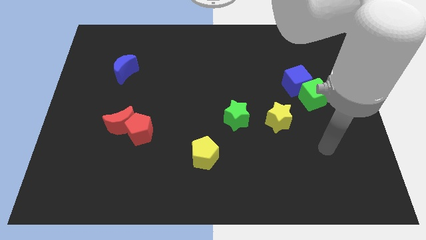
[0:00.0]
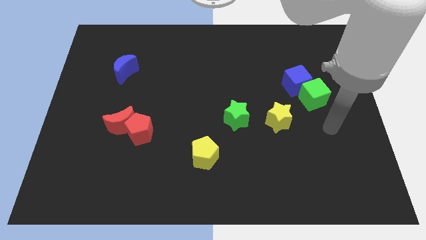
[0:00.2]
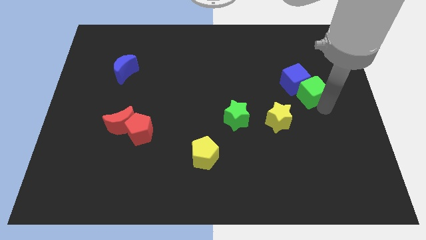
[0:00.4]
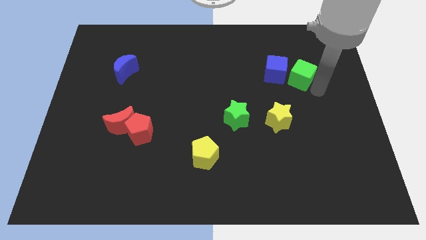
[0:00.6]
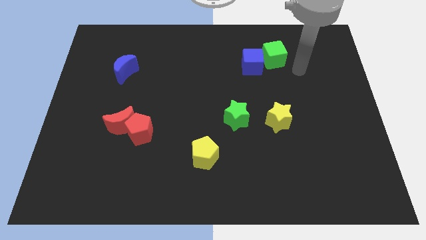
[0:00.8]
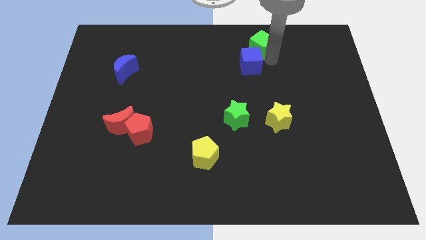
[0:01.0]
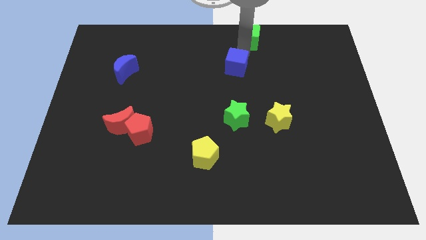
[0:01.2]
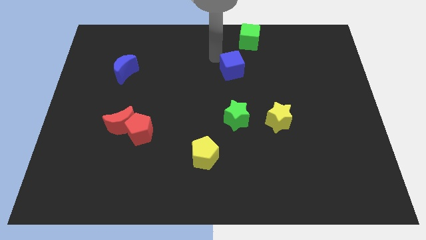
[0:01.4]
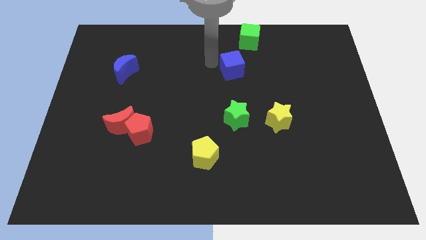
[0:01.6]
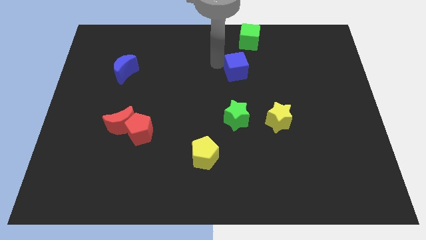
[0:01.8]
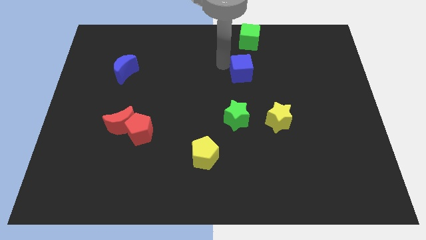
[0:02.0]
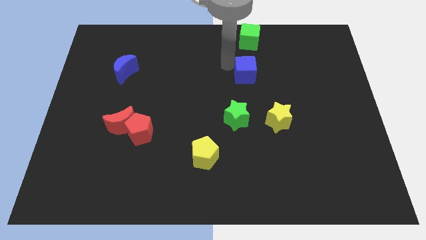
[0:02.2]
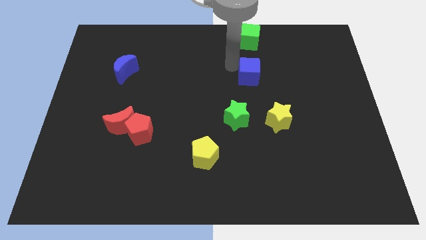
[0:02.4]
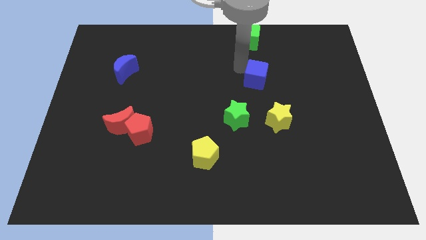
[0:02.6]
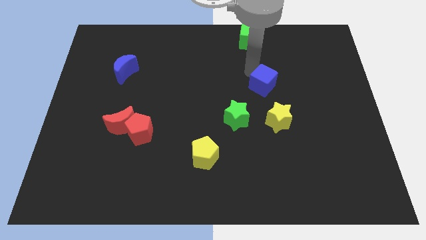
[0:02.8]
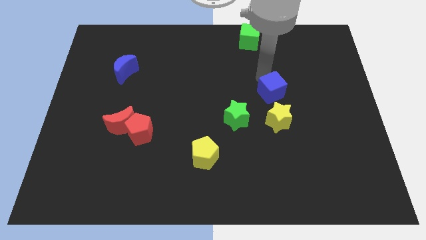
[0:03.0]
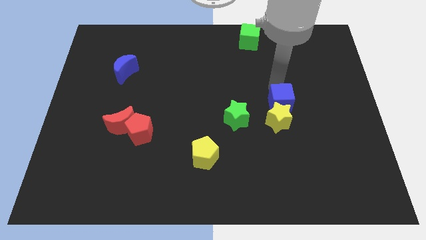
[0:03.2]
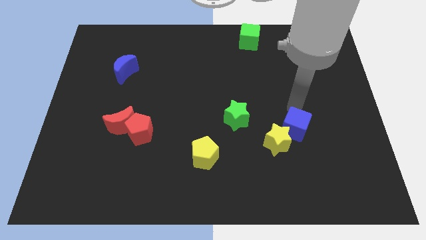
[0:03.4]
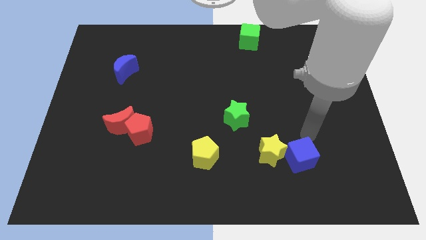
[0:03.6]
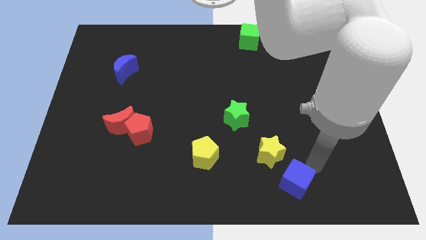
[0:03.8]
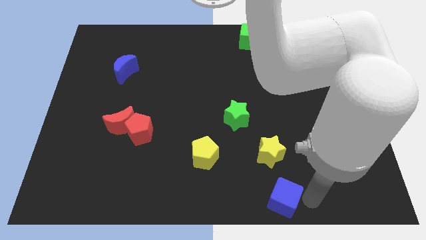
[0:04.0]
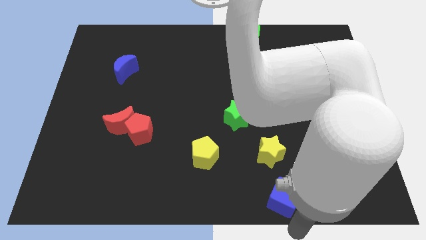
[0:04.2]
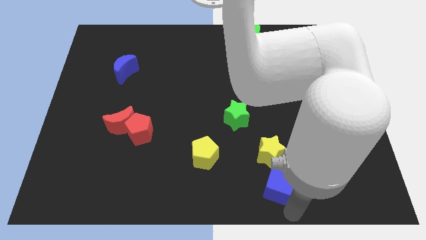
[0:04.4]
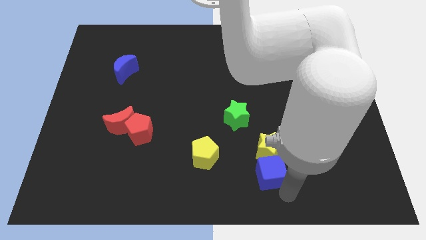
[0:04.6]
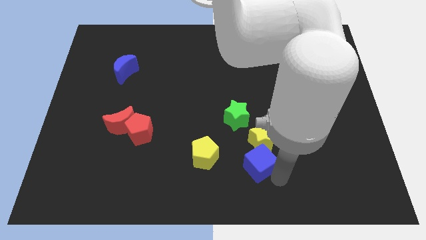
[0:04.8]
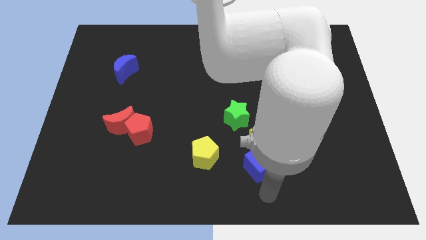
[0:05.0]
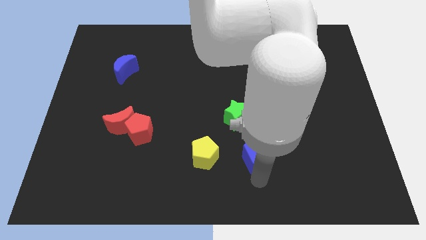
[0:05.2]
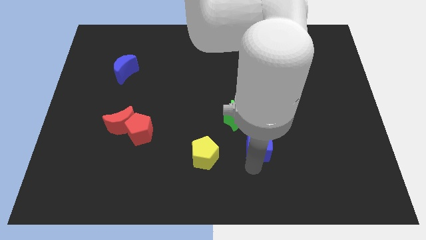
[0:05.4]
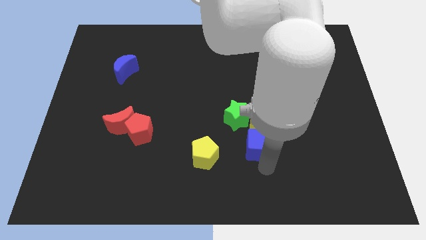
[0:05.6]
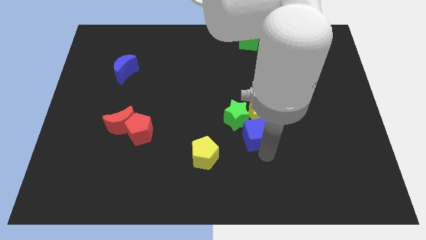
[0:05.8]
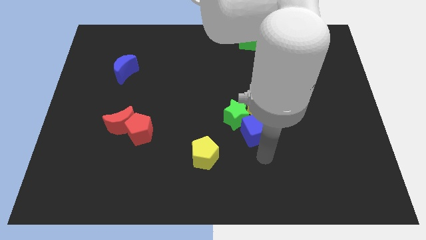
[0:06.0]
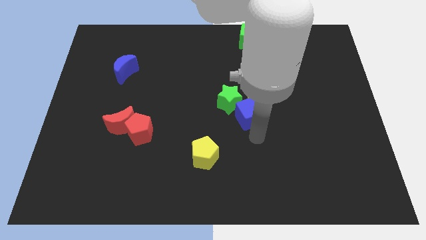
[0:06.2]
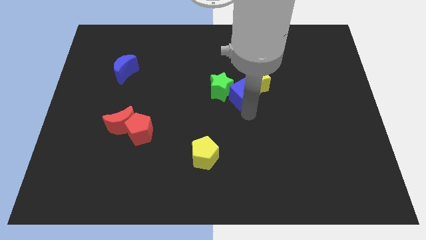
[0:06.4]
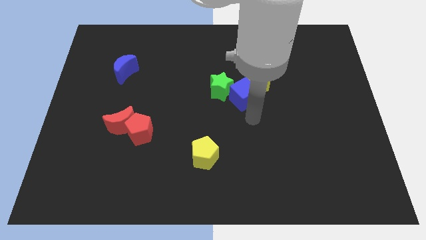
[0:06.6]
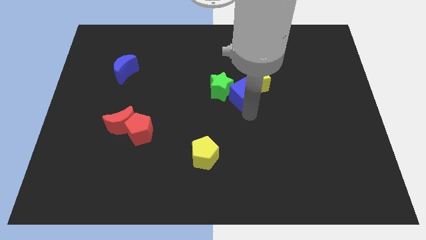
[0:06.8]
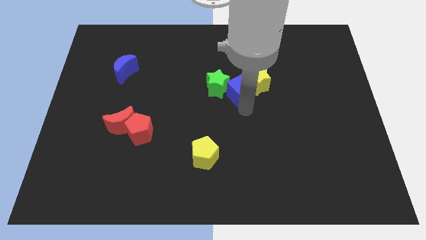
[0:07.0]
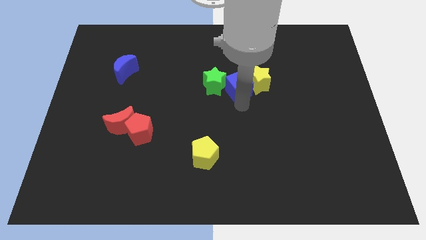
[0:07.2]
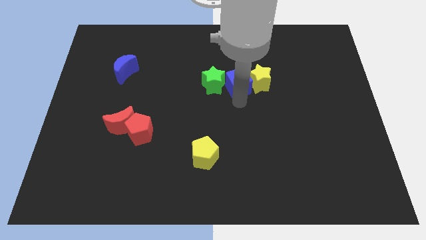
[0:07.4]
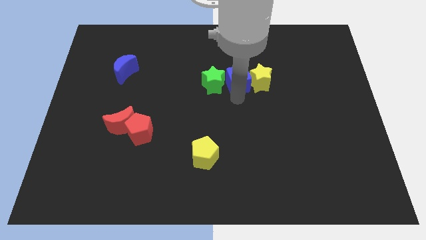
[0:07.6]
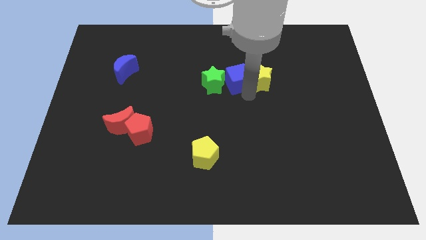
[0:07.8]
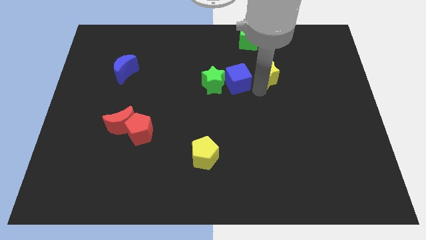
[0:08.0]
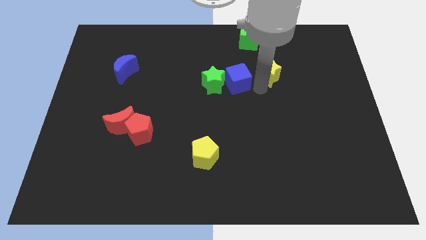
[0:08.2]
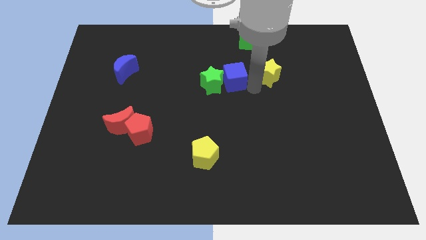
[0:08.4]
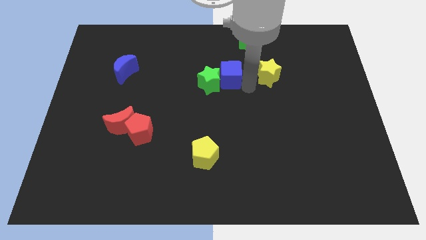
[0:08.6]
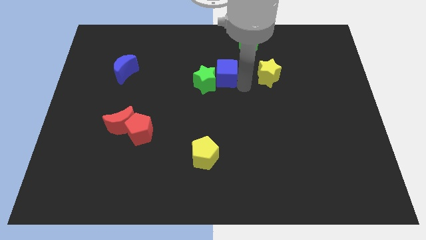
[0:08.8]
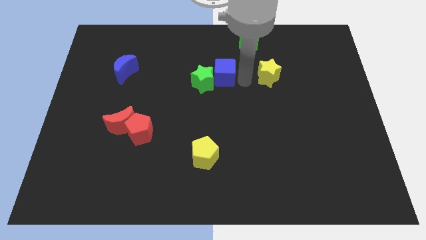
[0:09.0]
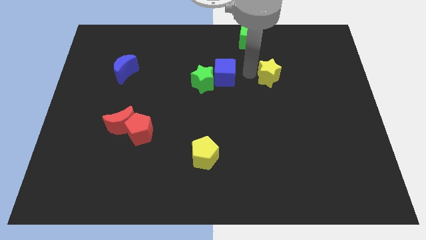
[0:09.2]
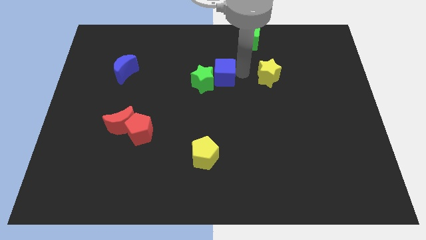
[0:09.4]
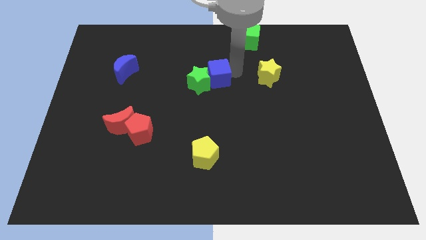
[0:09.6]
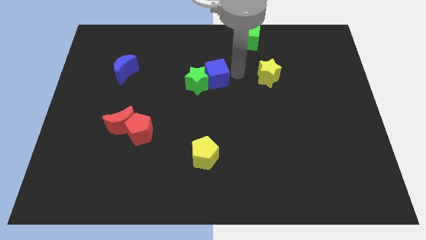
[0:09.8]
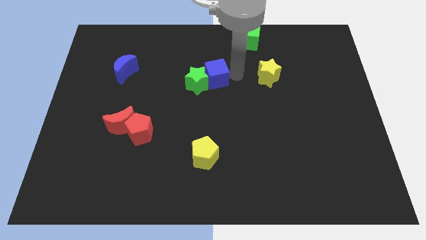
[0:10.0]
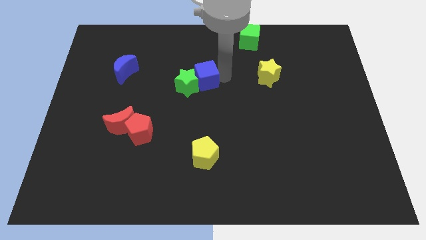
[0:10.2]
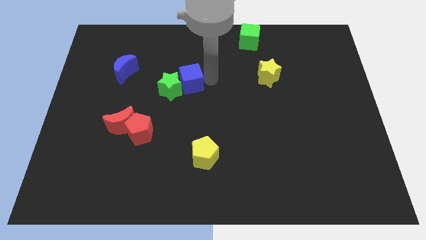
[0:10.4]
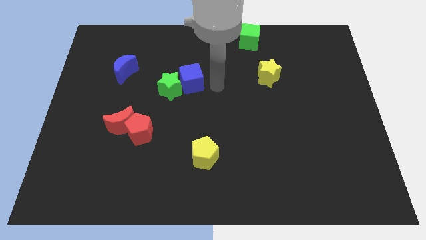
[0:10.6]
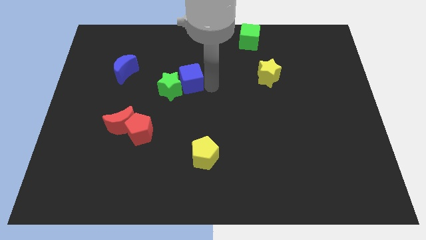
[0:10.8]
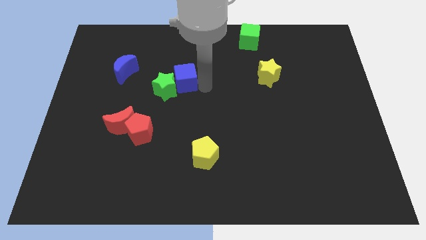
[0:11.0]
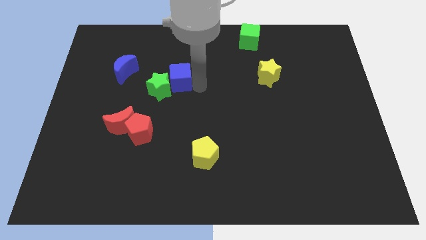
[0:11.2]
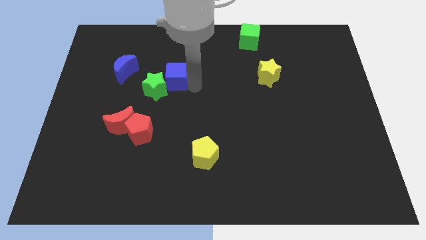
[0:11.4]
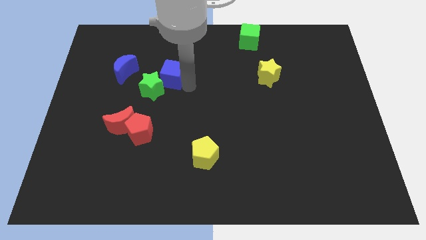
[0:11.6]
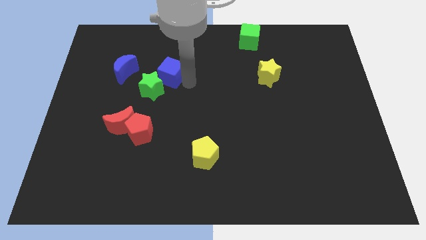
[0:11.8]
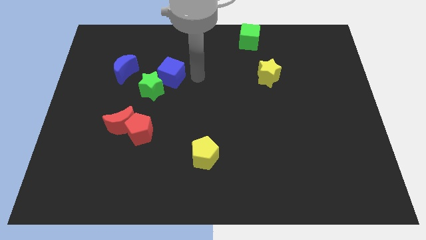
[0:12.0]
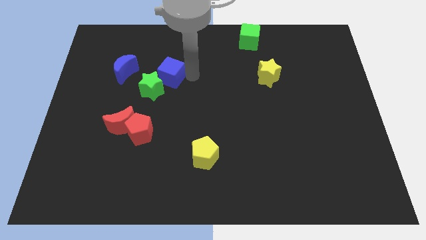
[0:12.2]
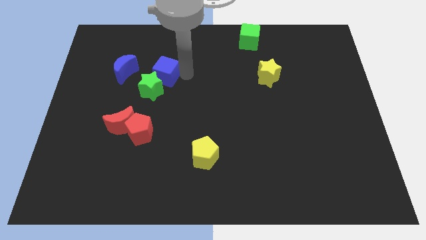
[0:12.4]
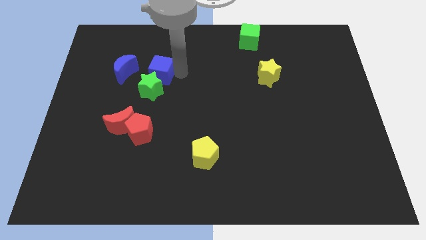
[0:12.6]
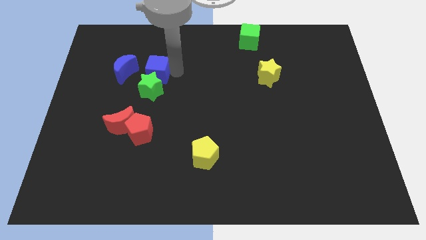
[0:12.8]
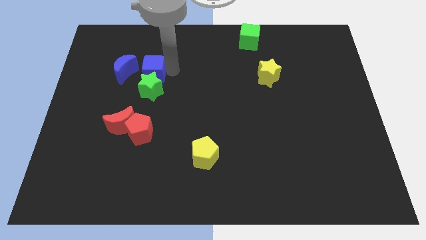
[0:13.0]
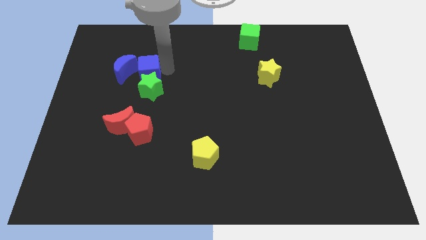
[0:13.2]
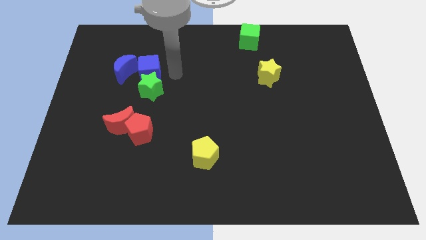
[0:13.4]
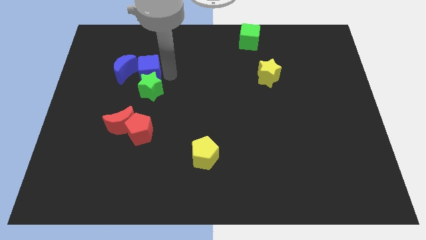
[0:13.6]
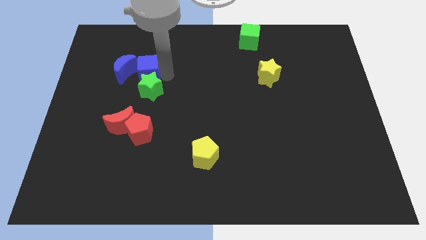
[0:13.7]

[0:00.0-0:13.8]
push the blue cube towards the blue moon

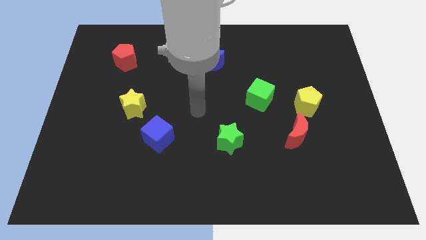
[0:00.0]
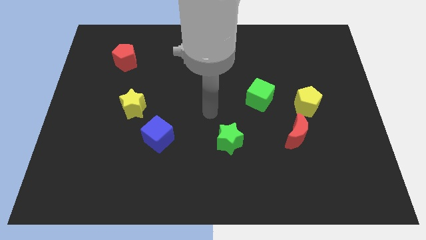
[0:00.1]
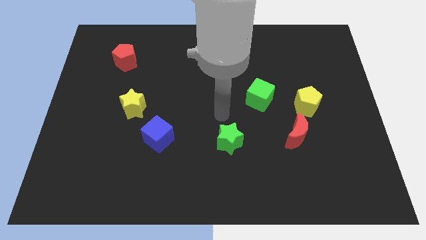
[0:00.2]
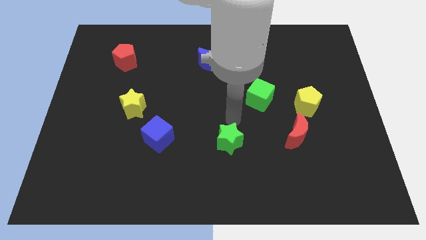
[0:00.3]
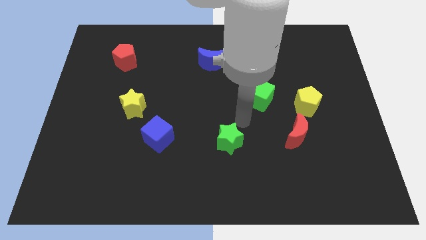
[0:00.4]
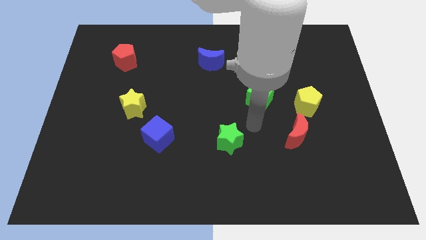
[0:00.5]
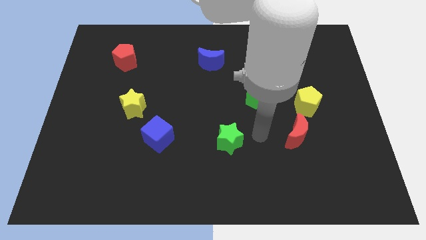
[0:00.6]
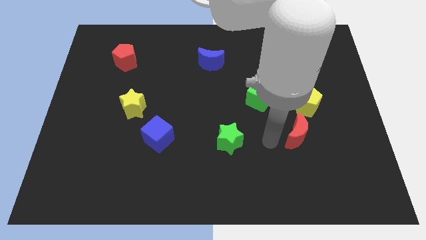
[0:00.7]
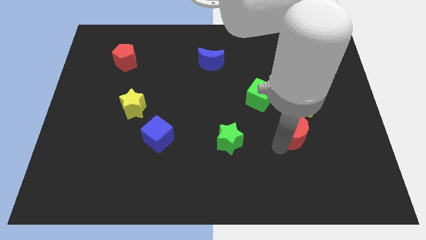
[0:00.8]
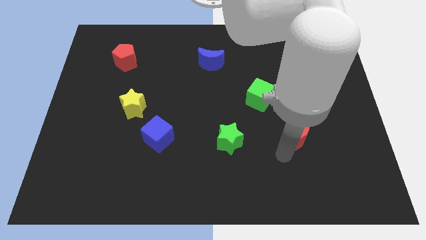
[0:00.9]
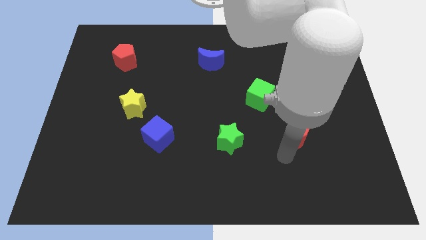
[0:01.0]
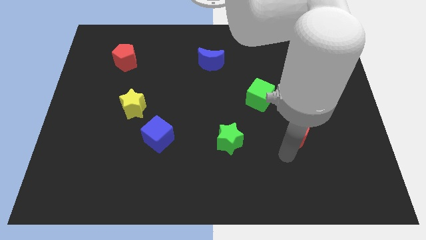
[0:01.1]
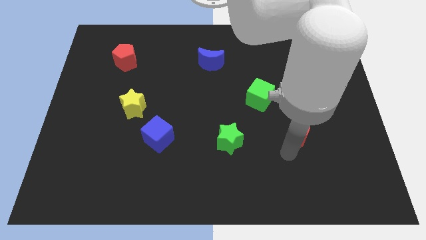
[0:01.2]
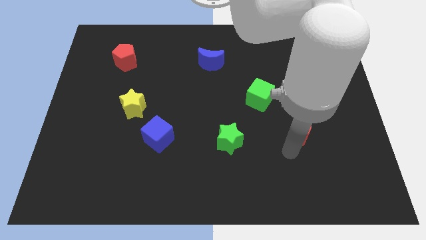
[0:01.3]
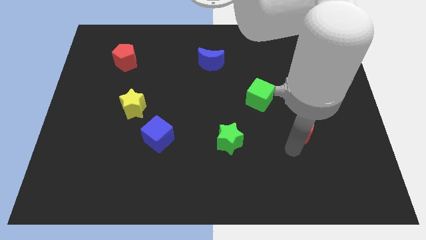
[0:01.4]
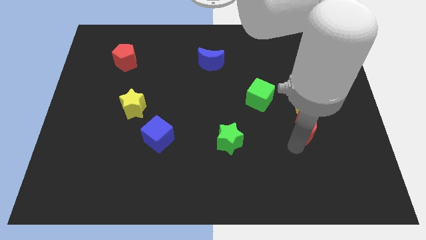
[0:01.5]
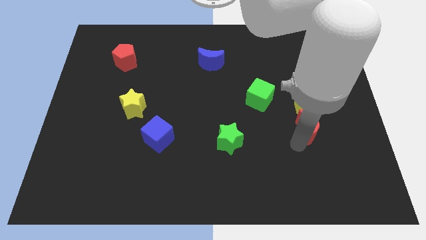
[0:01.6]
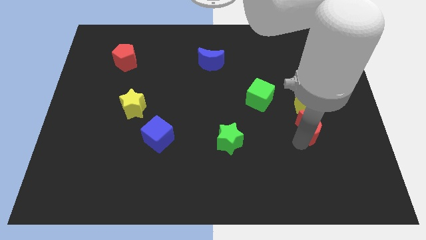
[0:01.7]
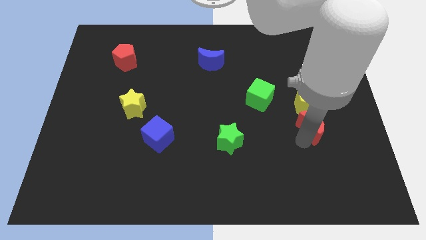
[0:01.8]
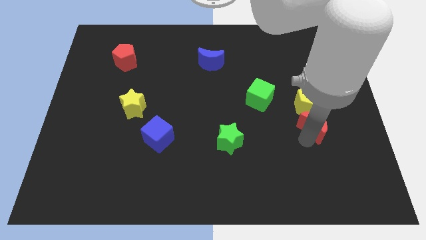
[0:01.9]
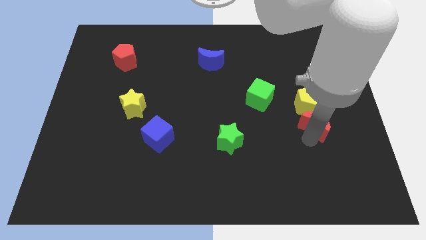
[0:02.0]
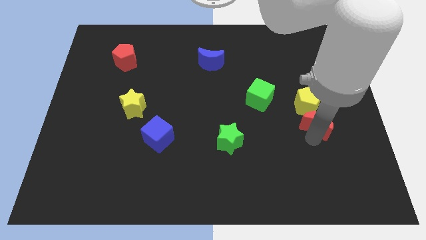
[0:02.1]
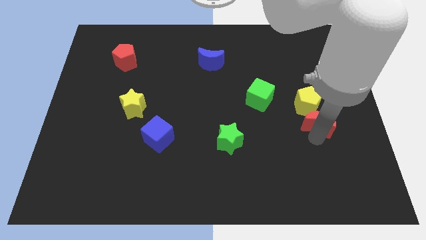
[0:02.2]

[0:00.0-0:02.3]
put the red moon towards the yellow pentagon
